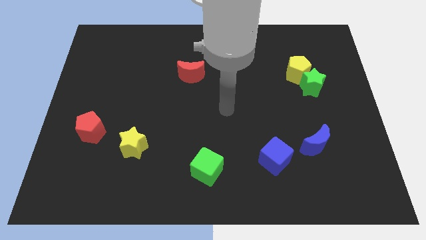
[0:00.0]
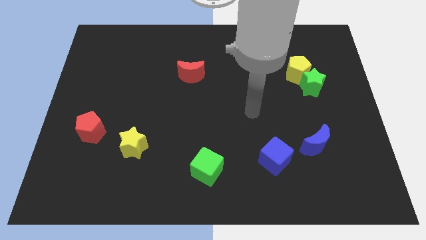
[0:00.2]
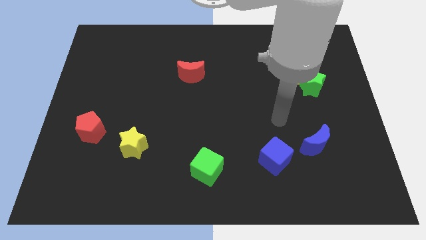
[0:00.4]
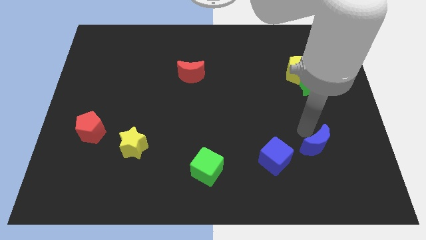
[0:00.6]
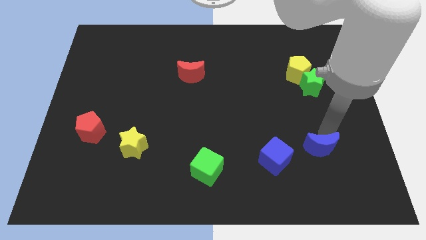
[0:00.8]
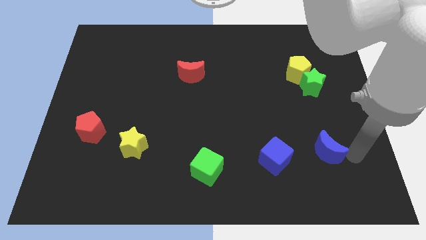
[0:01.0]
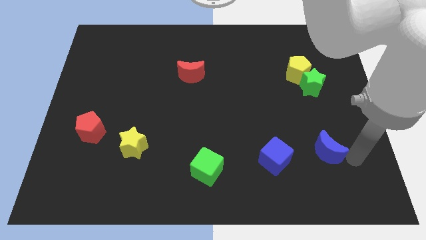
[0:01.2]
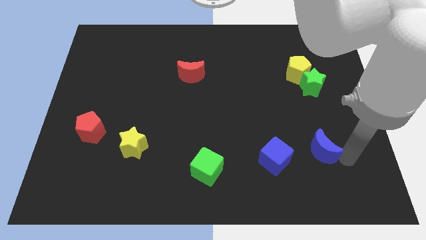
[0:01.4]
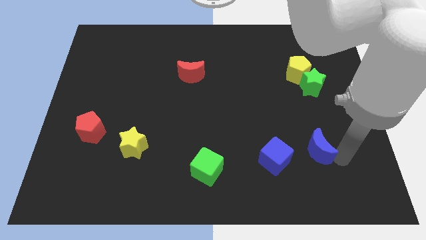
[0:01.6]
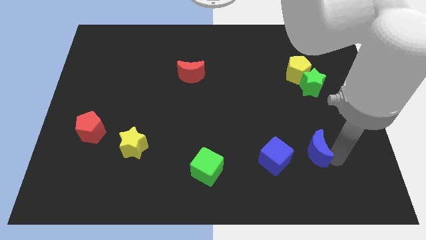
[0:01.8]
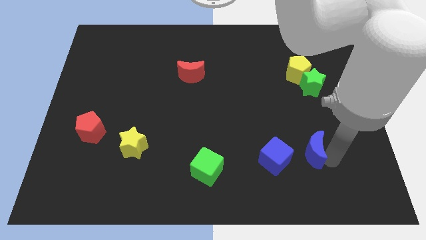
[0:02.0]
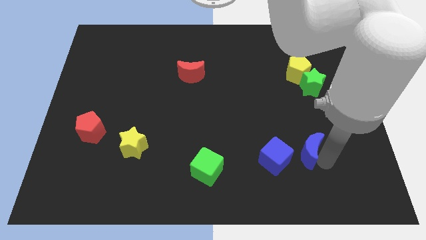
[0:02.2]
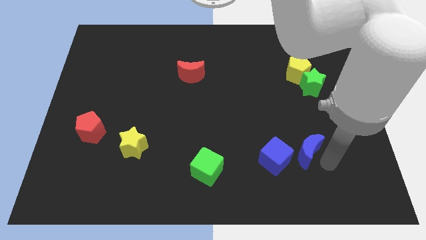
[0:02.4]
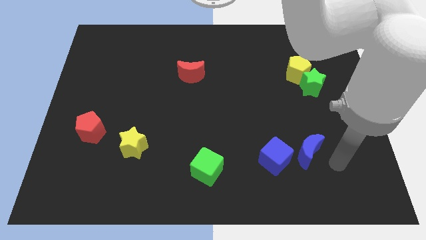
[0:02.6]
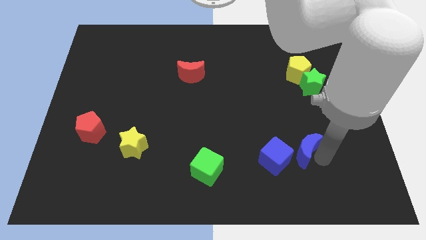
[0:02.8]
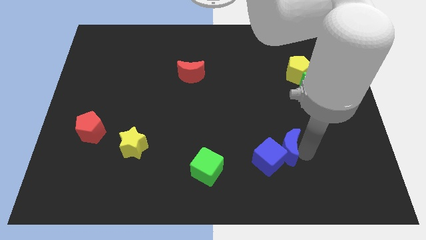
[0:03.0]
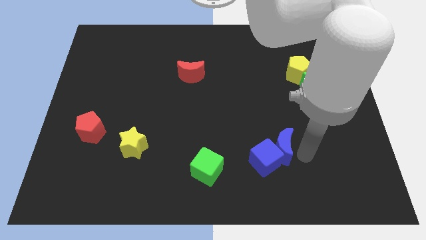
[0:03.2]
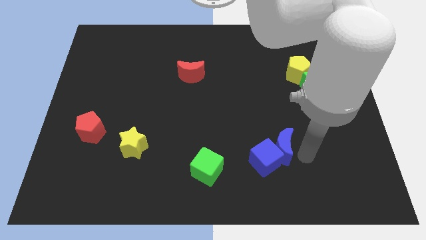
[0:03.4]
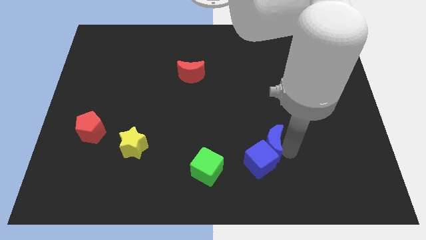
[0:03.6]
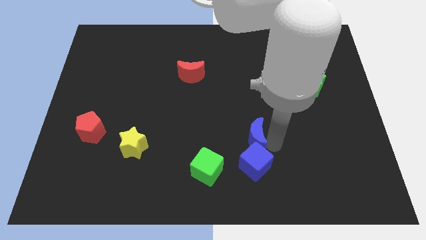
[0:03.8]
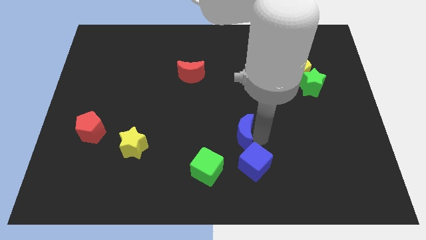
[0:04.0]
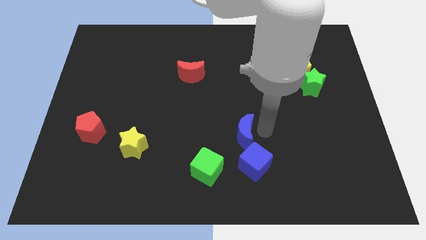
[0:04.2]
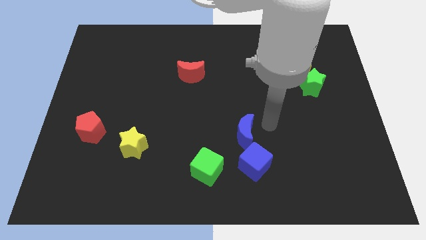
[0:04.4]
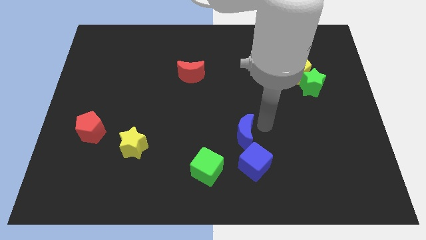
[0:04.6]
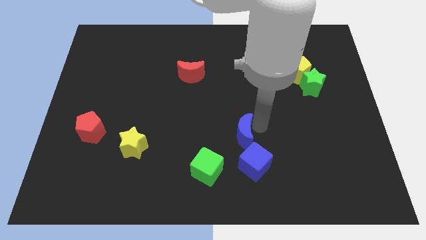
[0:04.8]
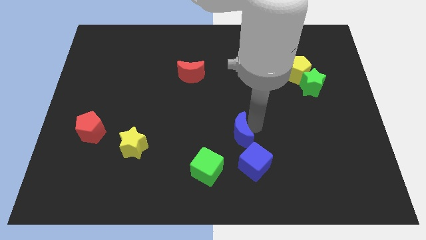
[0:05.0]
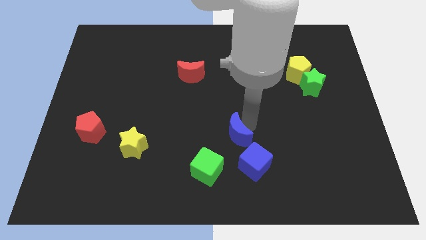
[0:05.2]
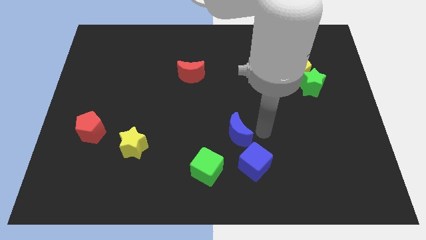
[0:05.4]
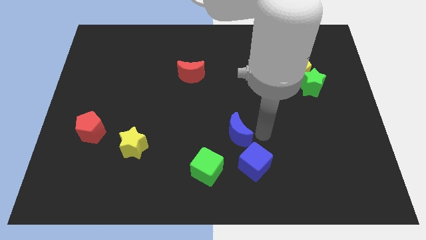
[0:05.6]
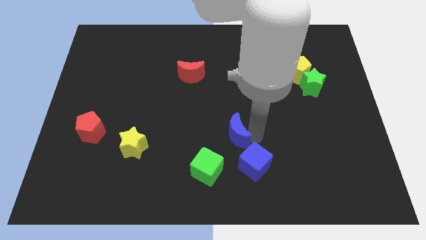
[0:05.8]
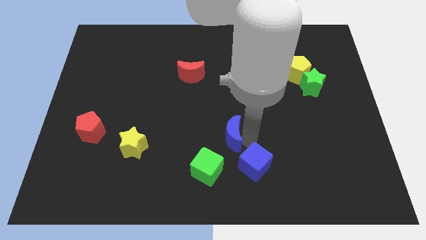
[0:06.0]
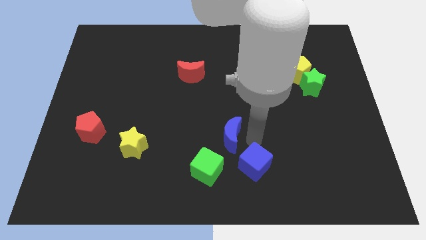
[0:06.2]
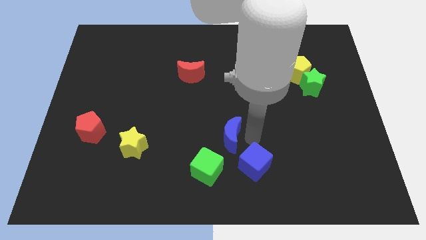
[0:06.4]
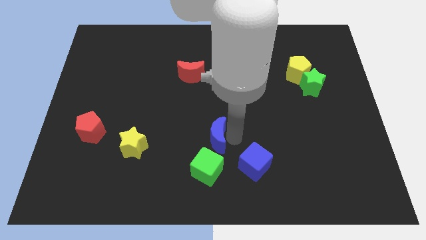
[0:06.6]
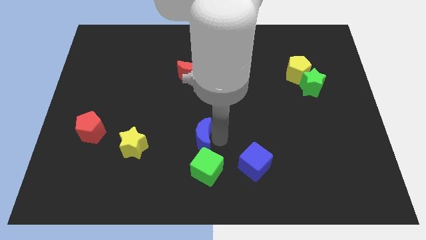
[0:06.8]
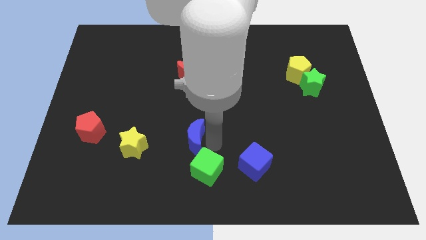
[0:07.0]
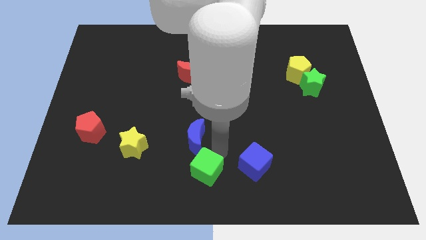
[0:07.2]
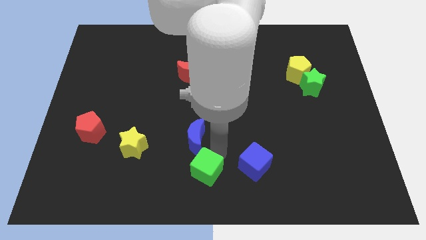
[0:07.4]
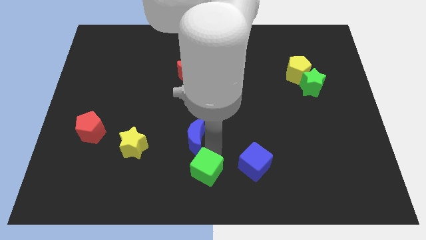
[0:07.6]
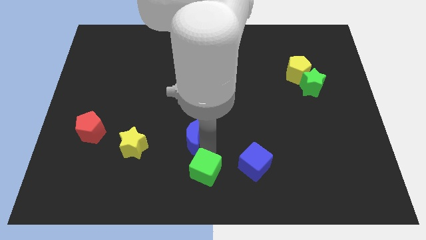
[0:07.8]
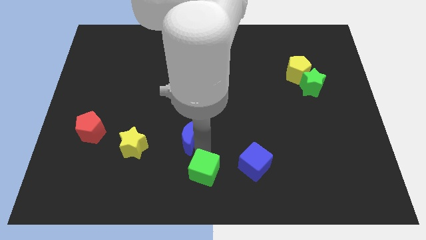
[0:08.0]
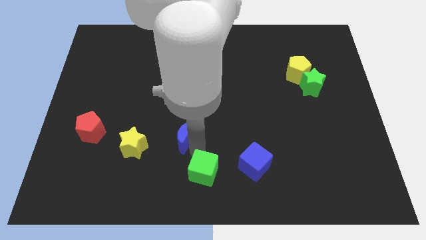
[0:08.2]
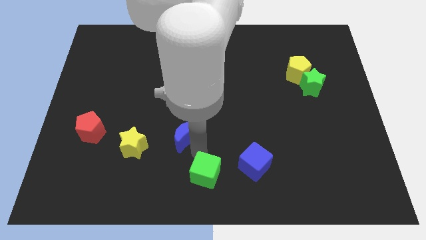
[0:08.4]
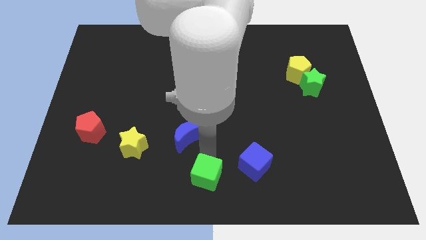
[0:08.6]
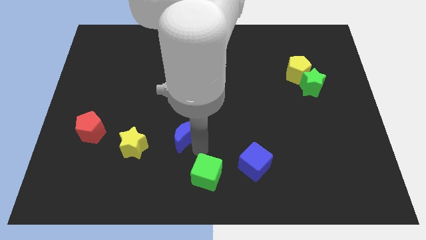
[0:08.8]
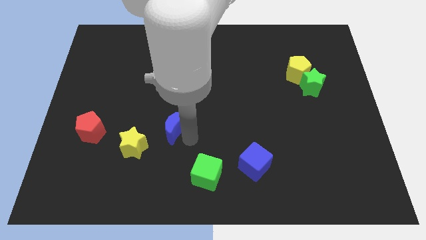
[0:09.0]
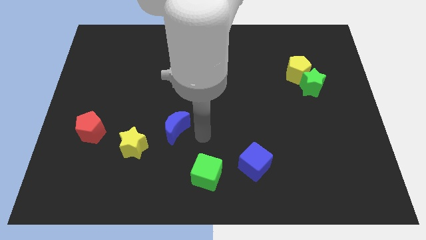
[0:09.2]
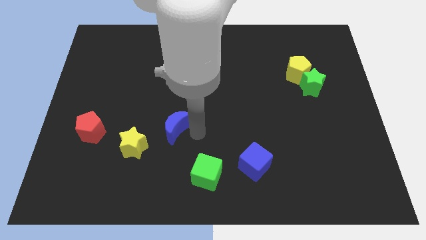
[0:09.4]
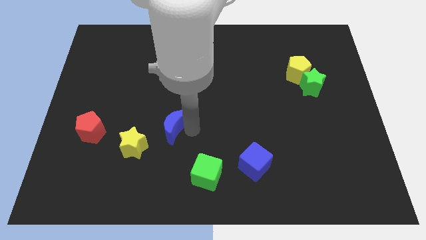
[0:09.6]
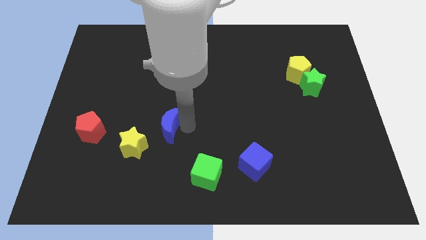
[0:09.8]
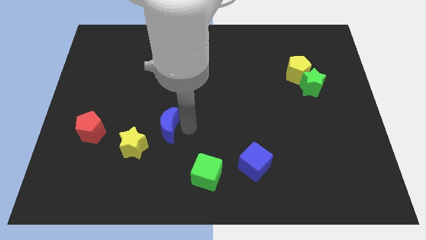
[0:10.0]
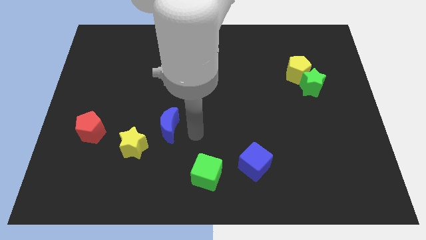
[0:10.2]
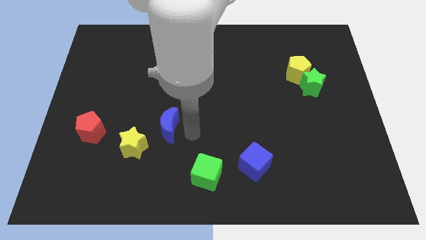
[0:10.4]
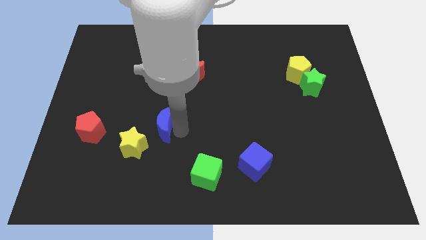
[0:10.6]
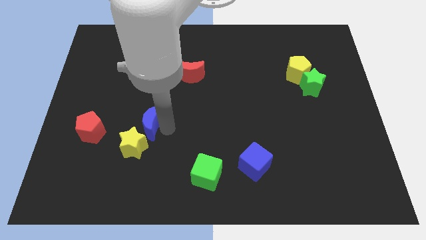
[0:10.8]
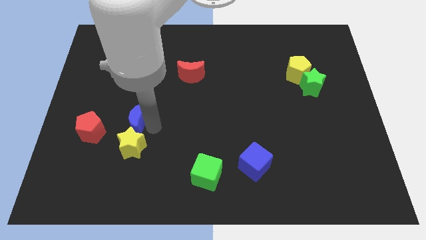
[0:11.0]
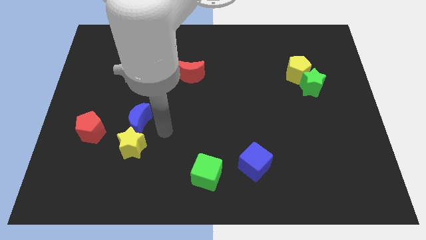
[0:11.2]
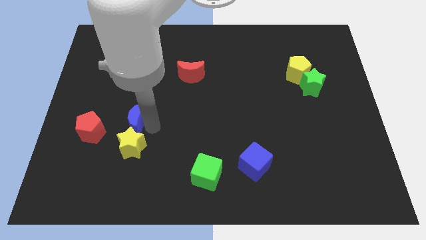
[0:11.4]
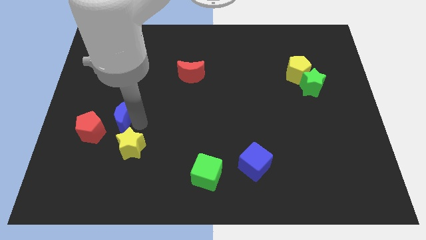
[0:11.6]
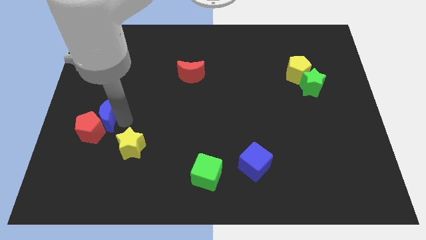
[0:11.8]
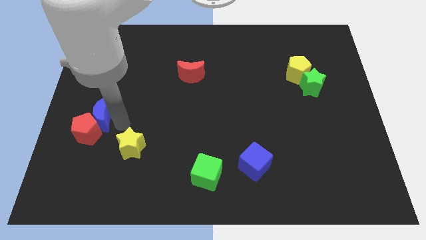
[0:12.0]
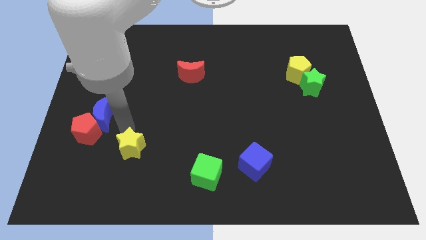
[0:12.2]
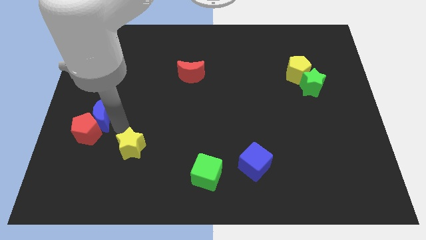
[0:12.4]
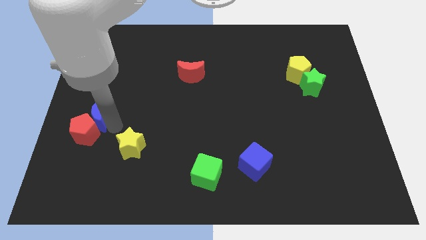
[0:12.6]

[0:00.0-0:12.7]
push the blue moon to the left side of the board

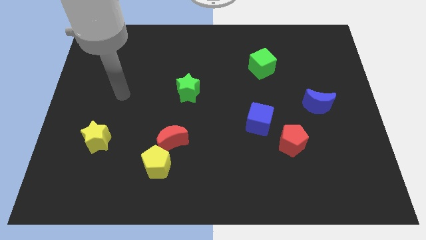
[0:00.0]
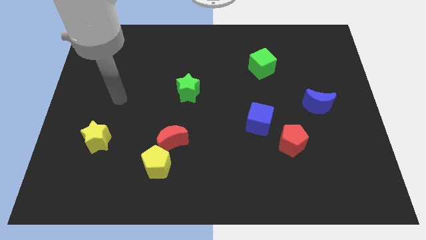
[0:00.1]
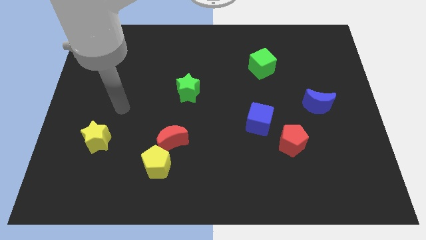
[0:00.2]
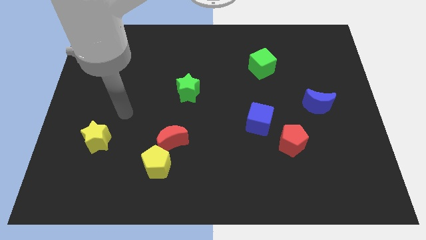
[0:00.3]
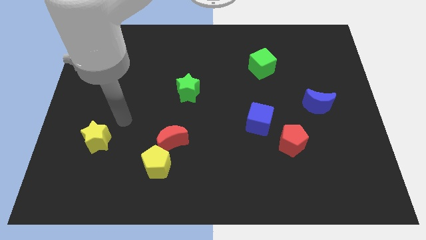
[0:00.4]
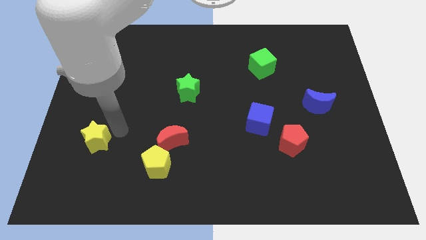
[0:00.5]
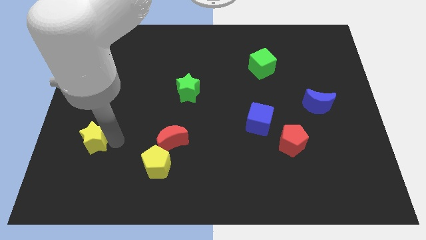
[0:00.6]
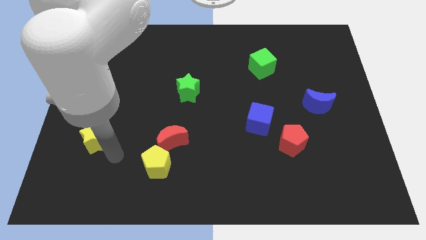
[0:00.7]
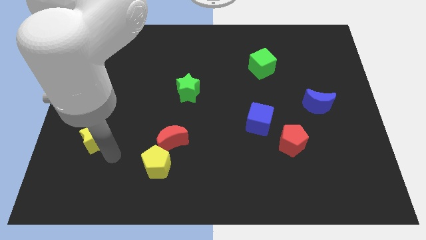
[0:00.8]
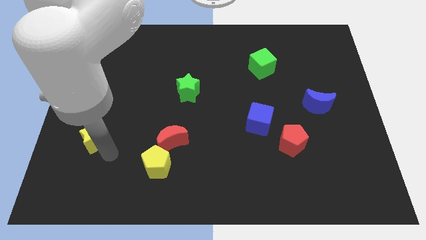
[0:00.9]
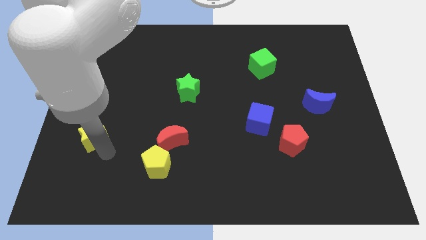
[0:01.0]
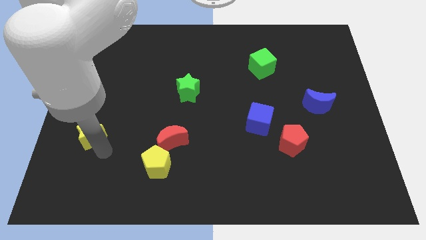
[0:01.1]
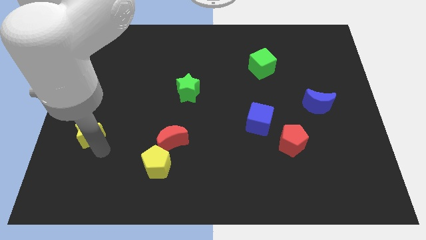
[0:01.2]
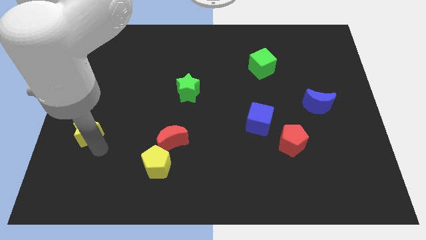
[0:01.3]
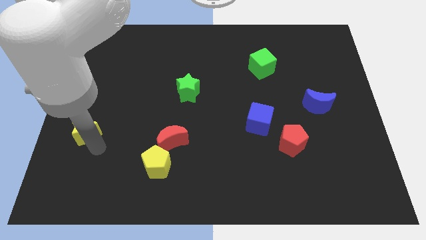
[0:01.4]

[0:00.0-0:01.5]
put the yellow star to the center left
